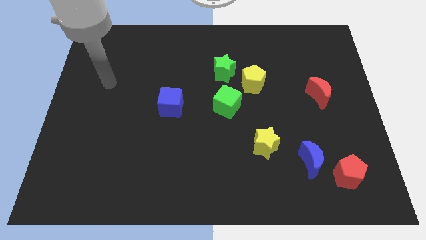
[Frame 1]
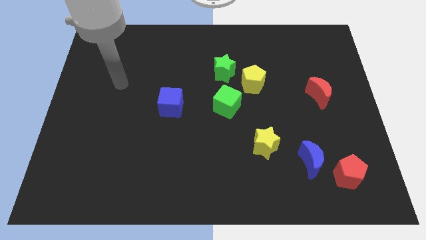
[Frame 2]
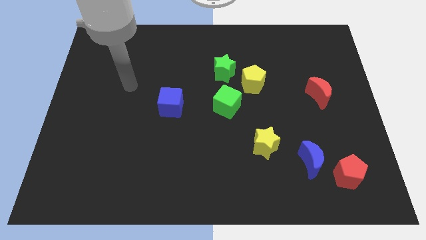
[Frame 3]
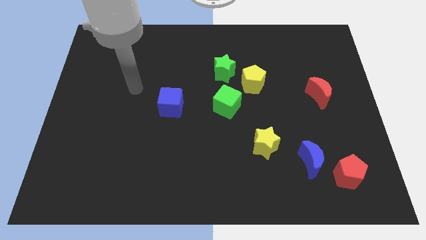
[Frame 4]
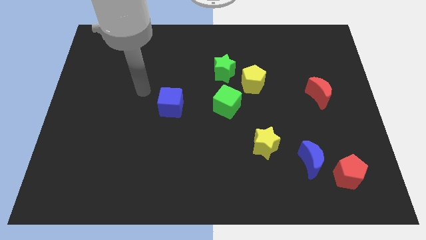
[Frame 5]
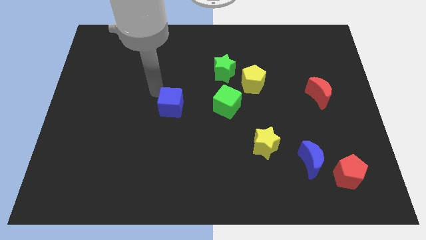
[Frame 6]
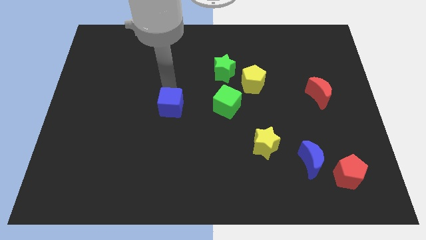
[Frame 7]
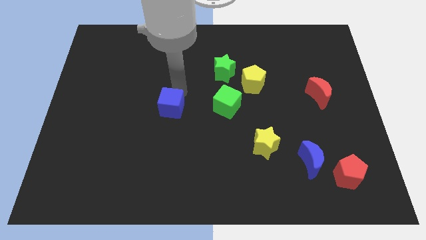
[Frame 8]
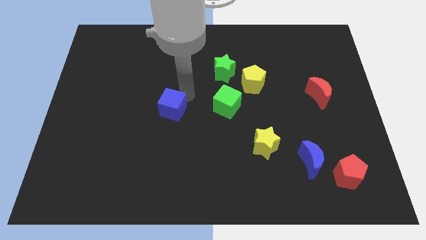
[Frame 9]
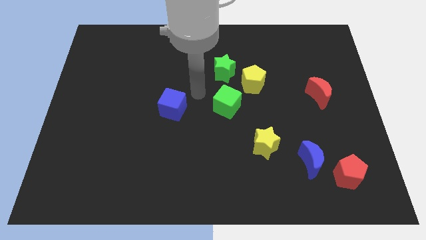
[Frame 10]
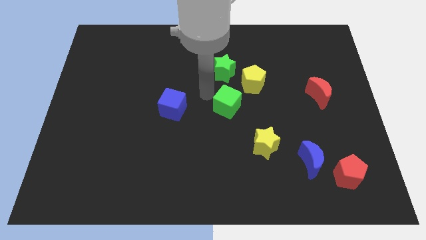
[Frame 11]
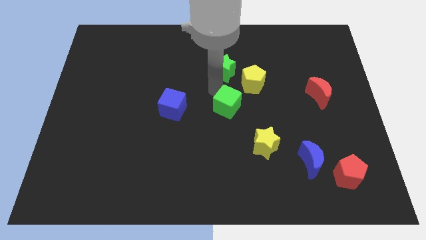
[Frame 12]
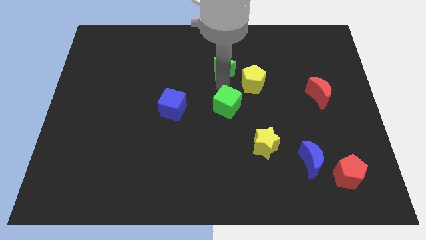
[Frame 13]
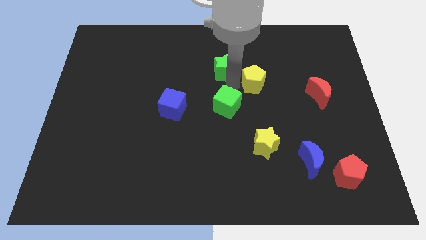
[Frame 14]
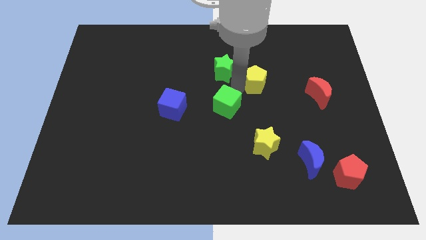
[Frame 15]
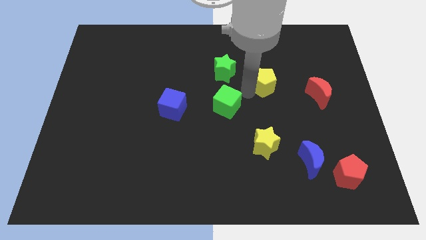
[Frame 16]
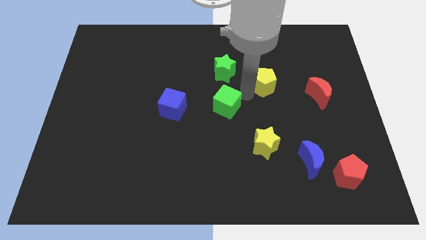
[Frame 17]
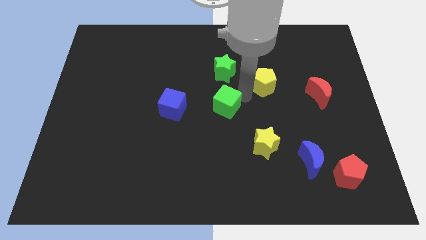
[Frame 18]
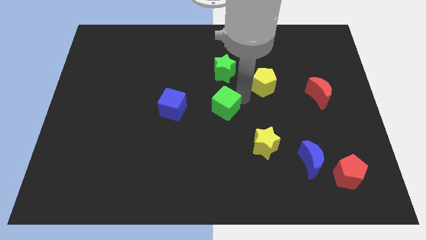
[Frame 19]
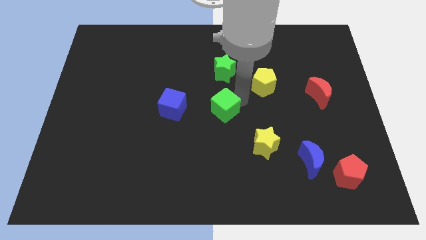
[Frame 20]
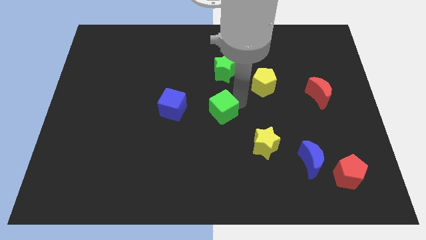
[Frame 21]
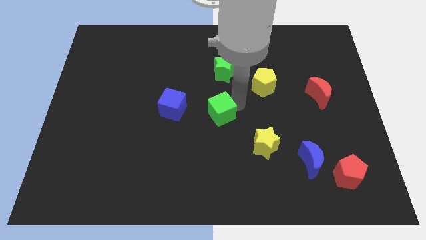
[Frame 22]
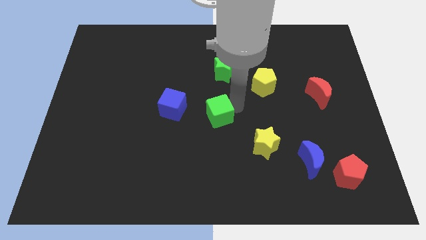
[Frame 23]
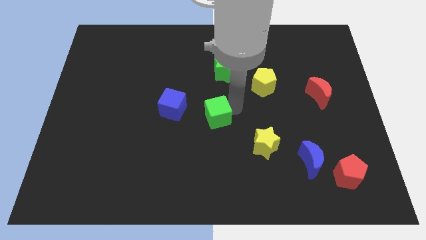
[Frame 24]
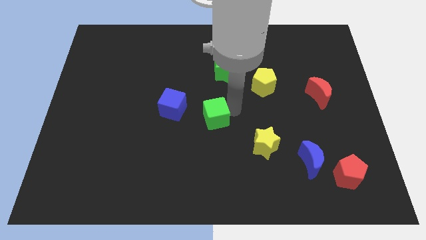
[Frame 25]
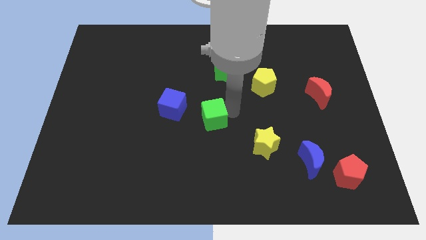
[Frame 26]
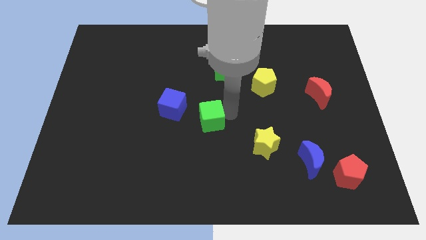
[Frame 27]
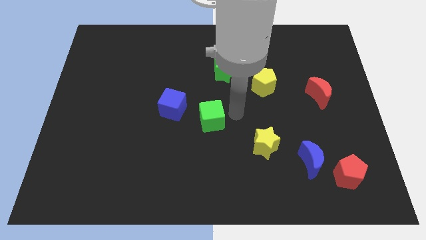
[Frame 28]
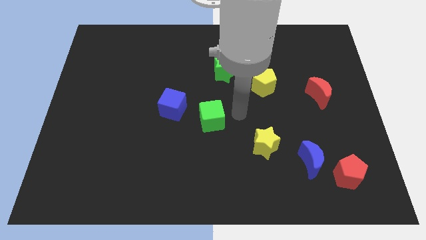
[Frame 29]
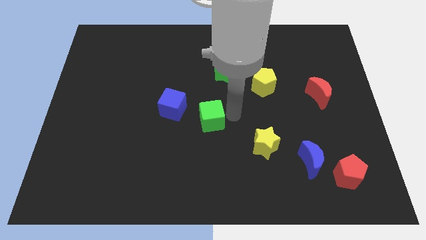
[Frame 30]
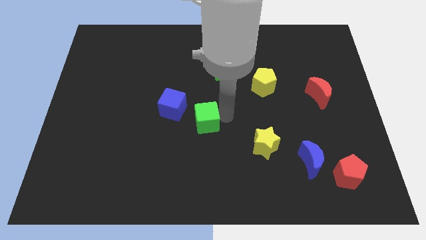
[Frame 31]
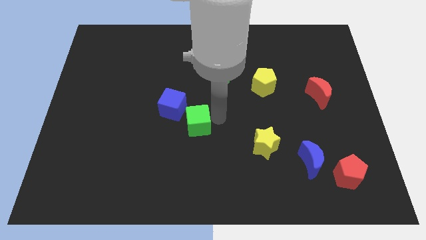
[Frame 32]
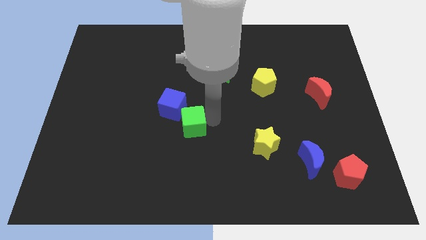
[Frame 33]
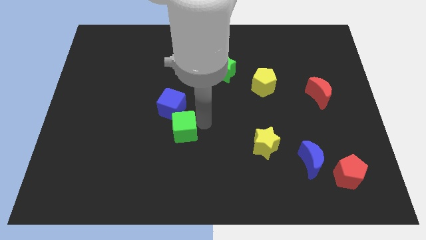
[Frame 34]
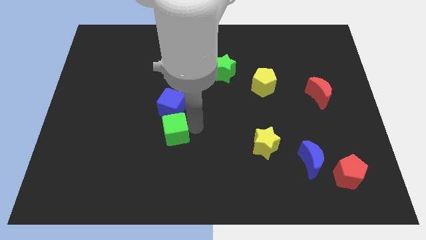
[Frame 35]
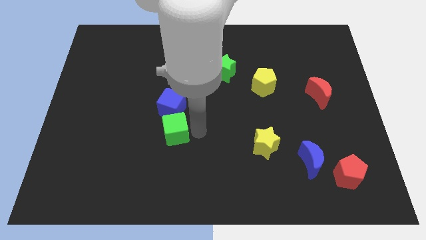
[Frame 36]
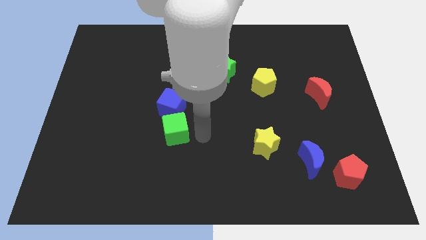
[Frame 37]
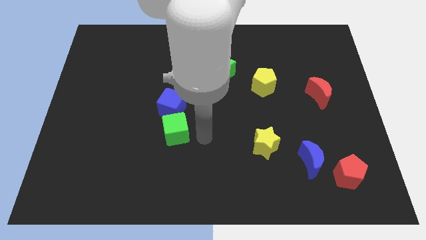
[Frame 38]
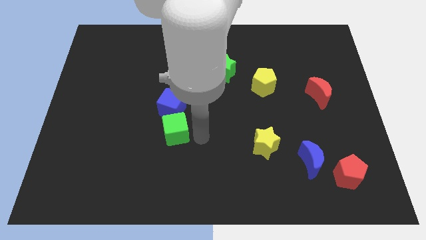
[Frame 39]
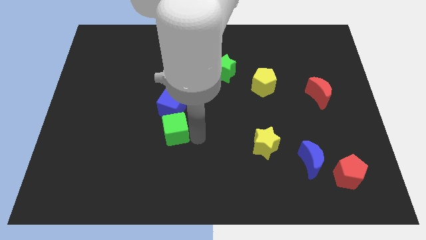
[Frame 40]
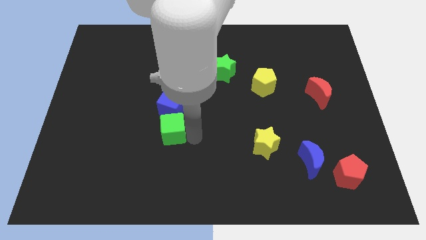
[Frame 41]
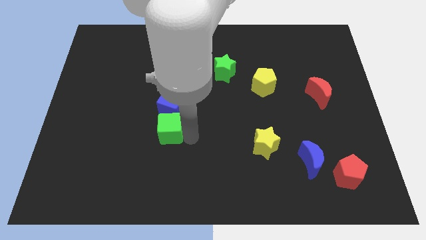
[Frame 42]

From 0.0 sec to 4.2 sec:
slide the green cube to the bottom left of the blue cube

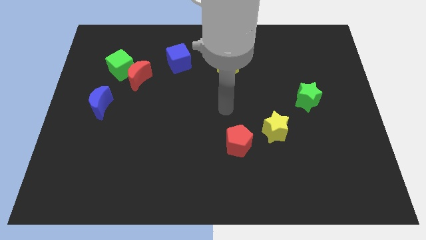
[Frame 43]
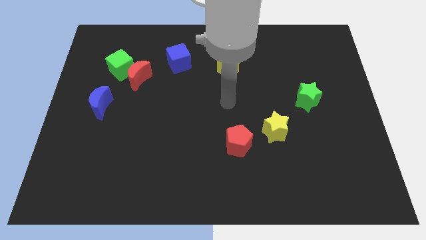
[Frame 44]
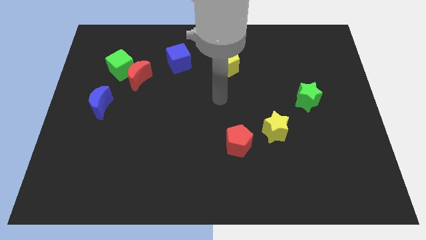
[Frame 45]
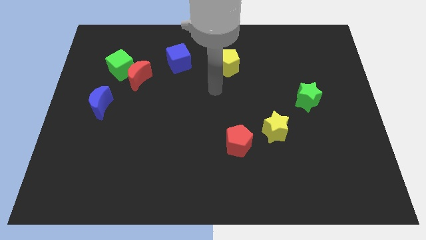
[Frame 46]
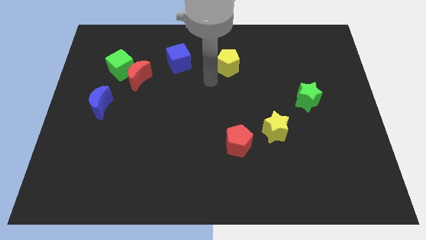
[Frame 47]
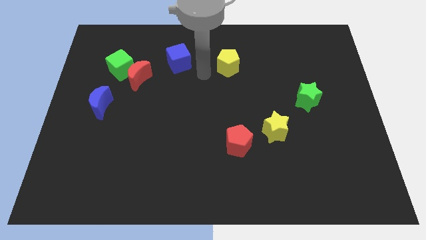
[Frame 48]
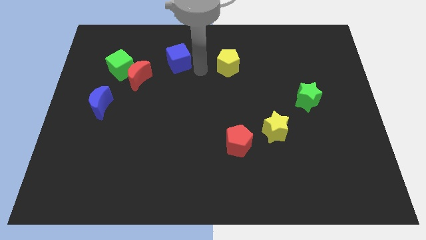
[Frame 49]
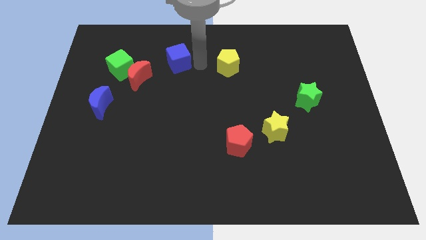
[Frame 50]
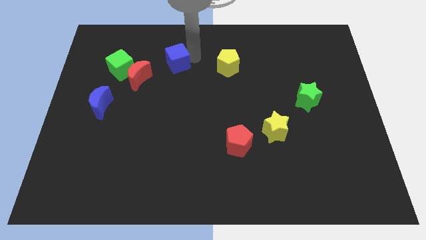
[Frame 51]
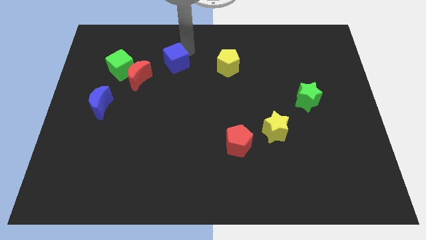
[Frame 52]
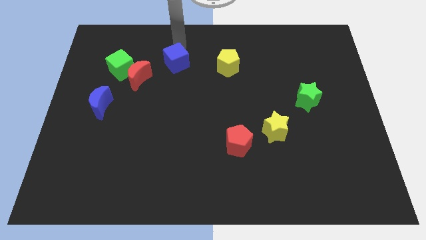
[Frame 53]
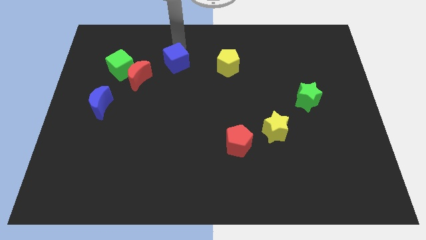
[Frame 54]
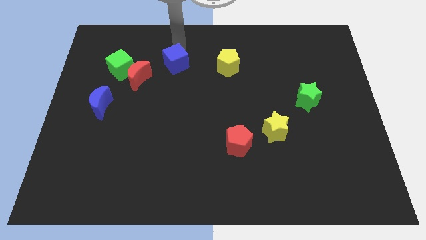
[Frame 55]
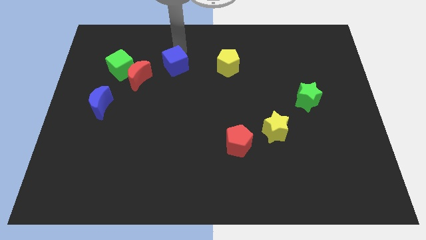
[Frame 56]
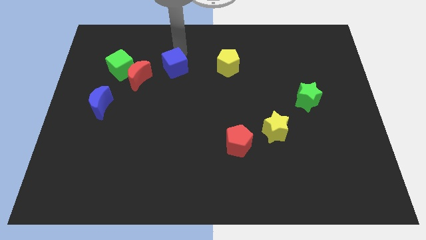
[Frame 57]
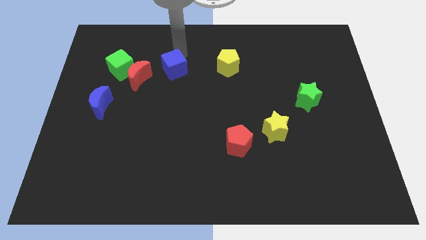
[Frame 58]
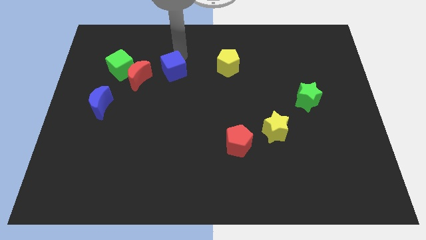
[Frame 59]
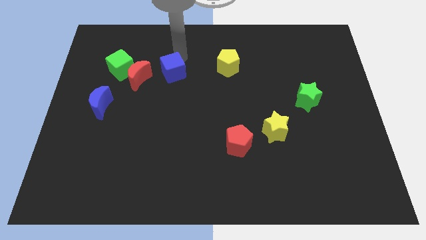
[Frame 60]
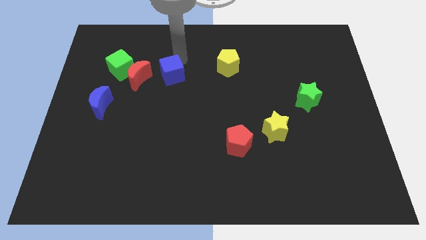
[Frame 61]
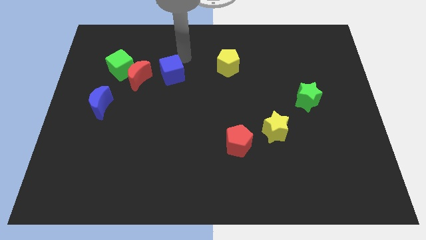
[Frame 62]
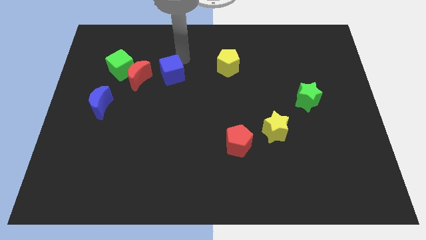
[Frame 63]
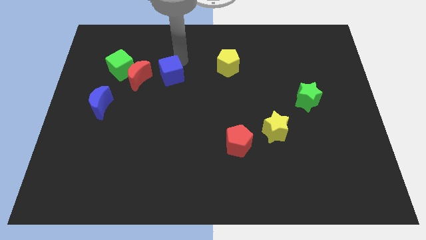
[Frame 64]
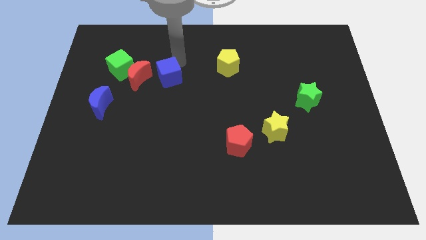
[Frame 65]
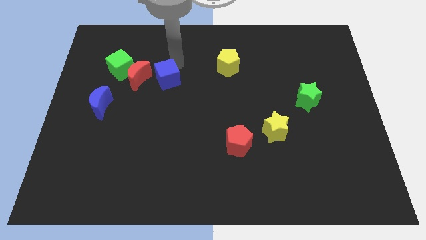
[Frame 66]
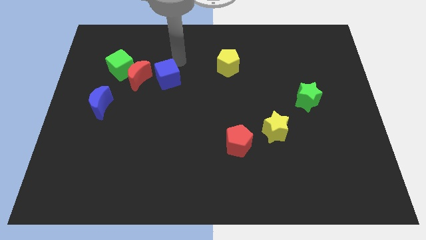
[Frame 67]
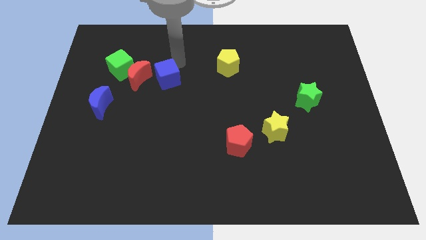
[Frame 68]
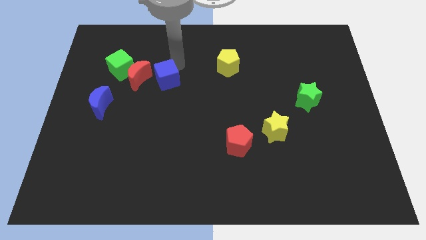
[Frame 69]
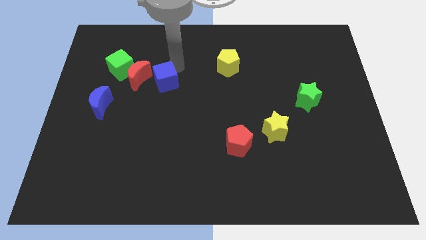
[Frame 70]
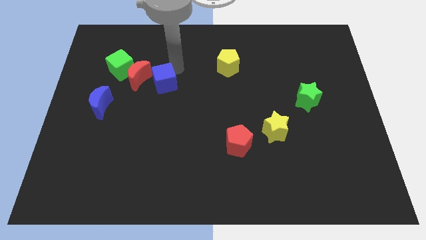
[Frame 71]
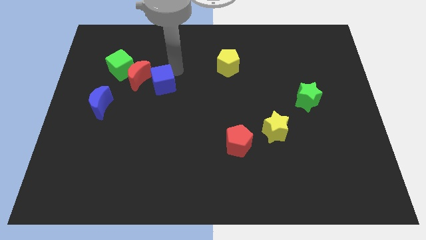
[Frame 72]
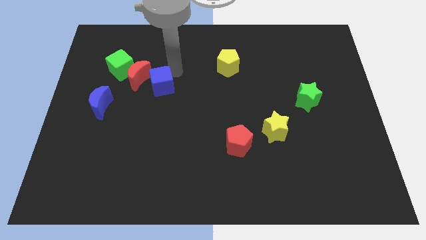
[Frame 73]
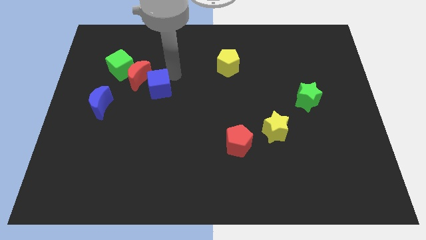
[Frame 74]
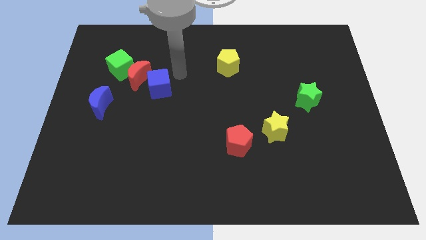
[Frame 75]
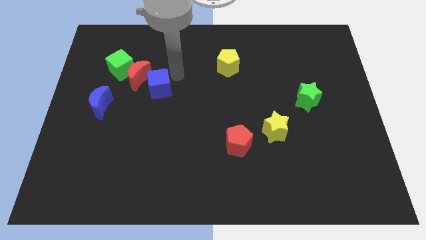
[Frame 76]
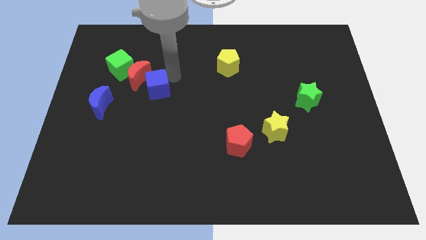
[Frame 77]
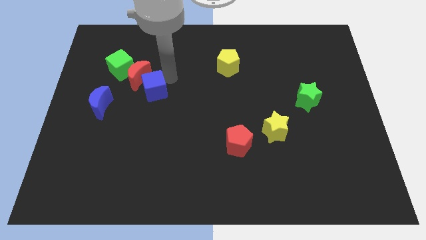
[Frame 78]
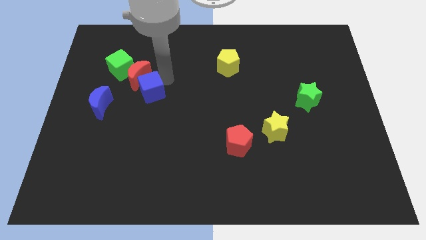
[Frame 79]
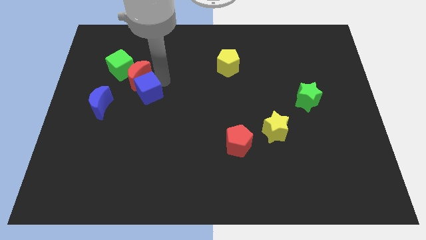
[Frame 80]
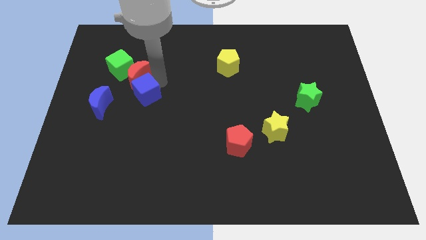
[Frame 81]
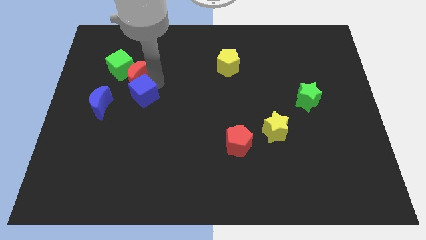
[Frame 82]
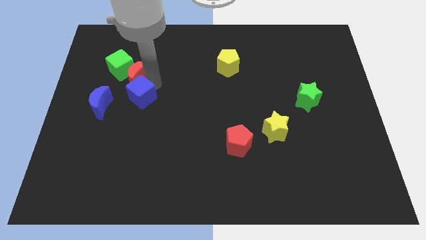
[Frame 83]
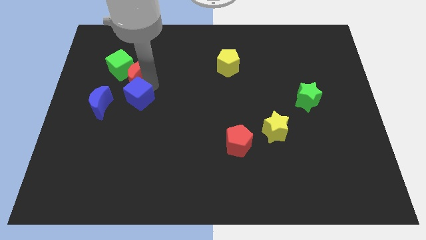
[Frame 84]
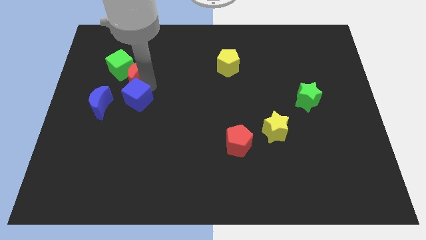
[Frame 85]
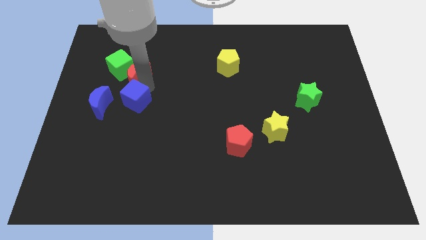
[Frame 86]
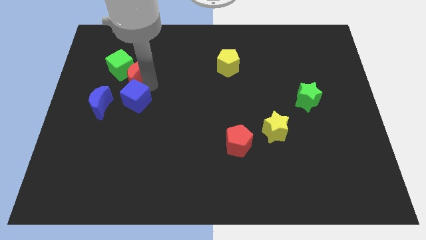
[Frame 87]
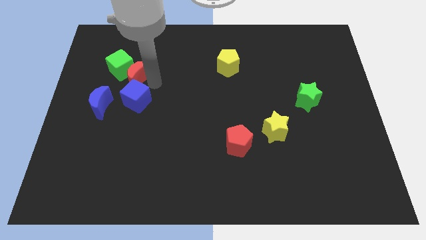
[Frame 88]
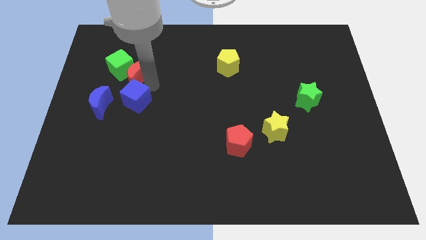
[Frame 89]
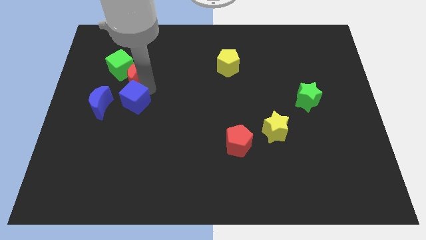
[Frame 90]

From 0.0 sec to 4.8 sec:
move the blue cube to the bottom side of the green cube
